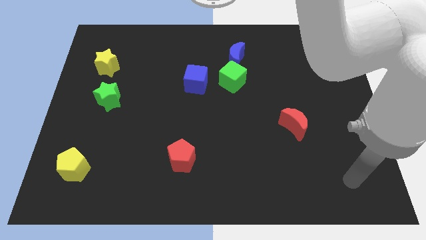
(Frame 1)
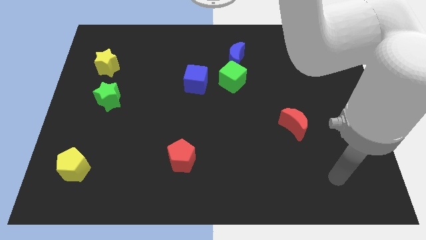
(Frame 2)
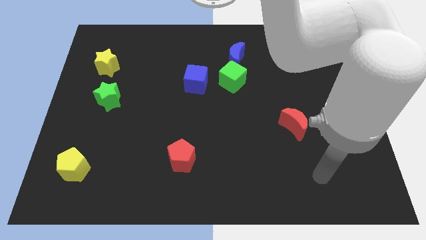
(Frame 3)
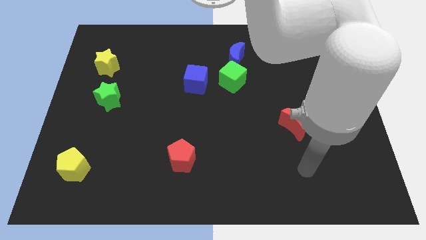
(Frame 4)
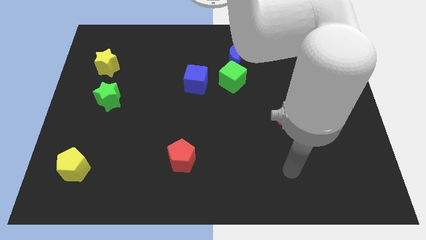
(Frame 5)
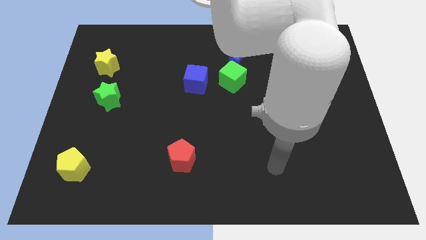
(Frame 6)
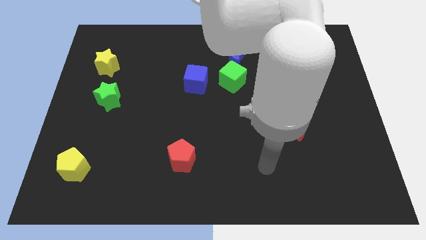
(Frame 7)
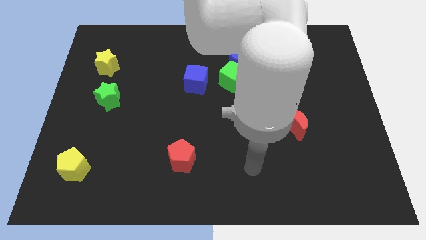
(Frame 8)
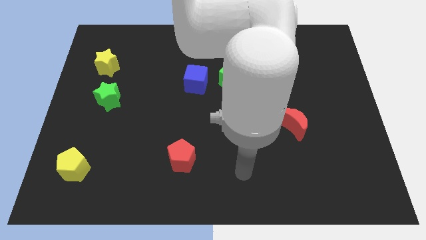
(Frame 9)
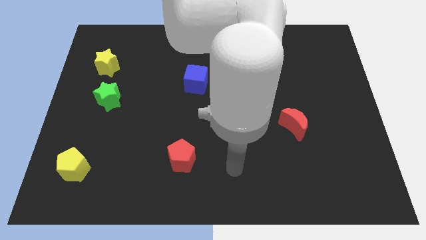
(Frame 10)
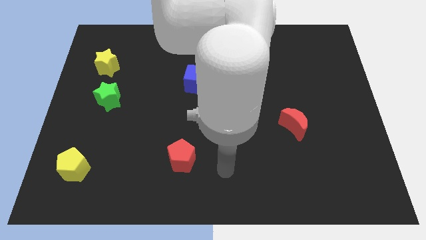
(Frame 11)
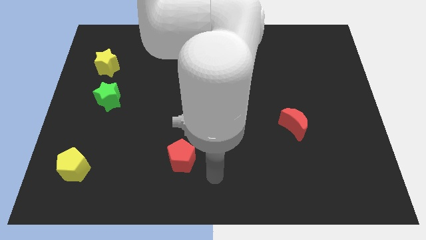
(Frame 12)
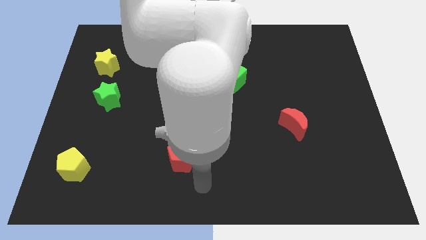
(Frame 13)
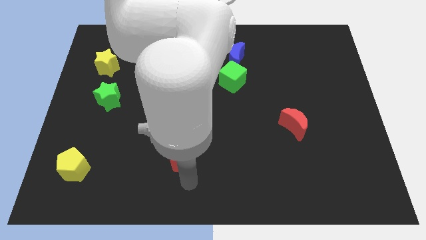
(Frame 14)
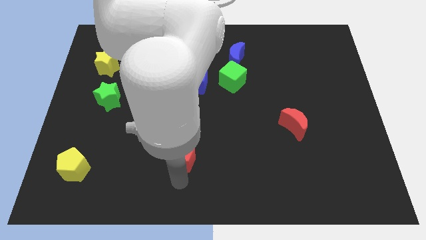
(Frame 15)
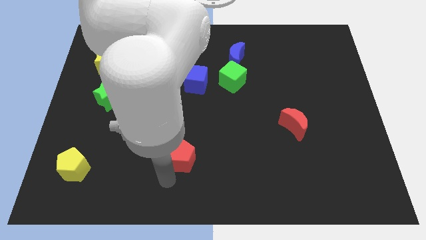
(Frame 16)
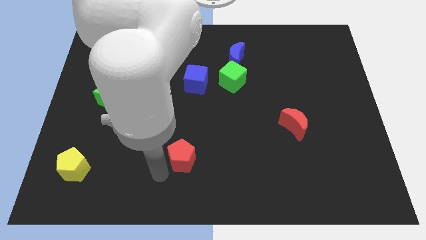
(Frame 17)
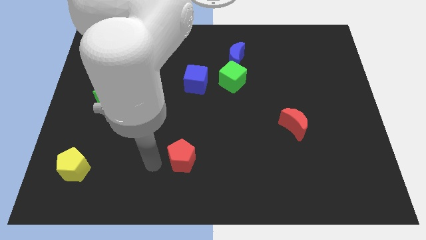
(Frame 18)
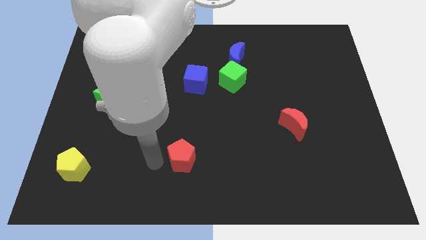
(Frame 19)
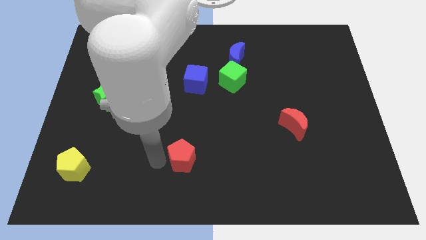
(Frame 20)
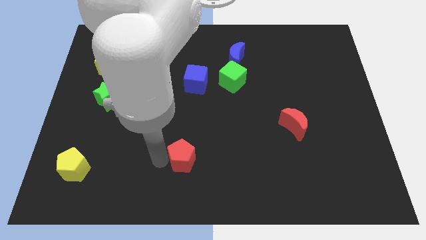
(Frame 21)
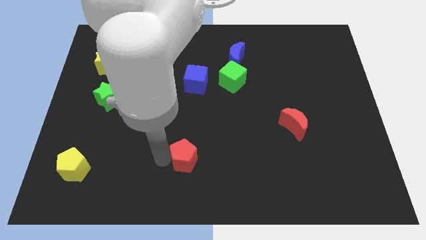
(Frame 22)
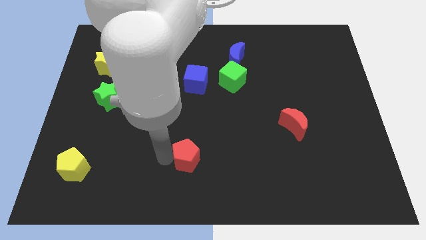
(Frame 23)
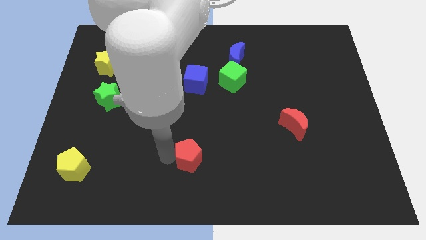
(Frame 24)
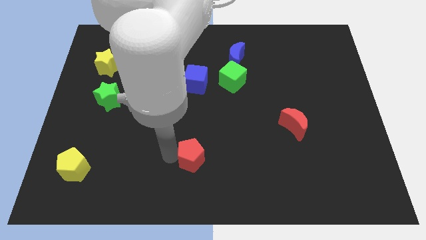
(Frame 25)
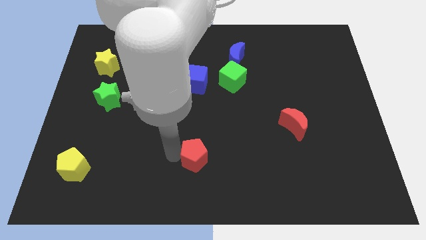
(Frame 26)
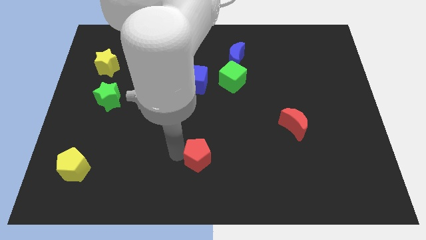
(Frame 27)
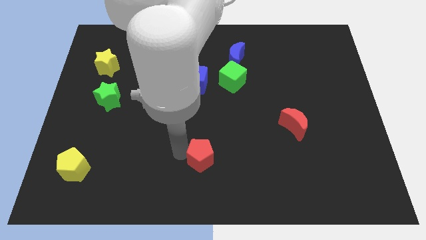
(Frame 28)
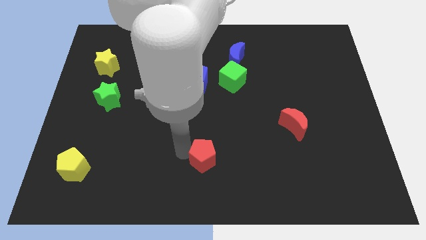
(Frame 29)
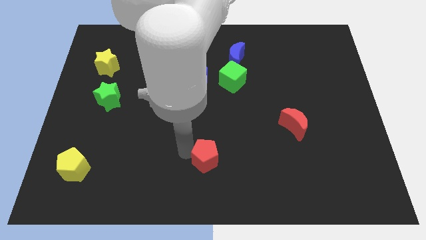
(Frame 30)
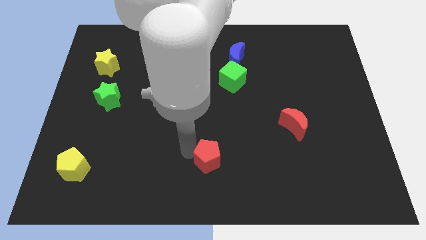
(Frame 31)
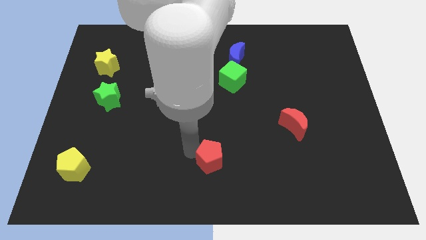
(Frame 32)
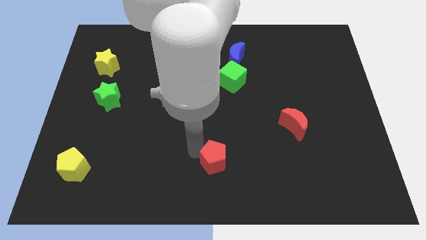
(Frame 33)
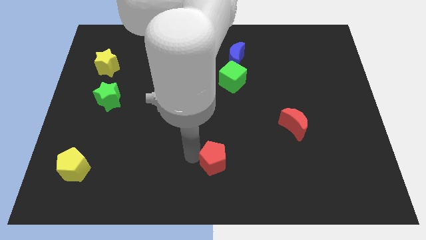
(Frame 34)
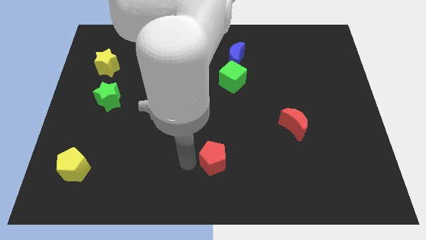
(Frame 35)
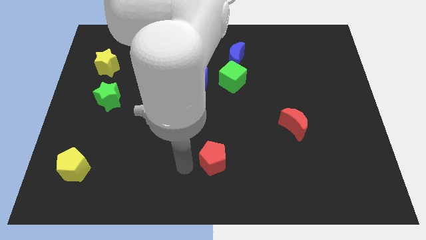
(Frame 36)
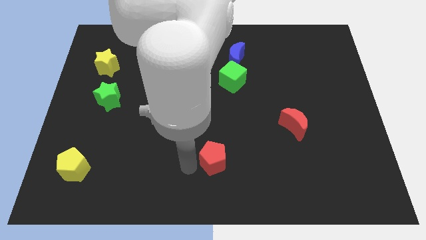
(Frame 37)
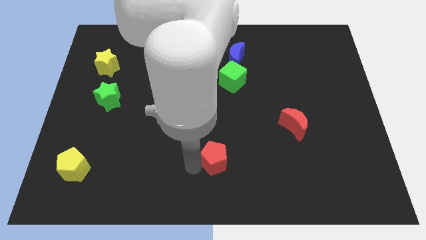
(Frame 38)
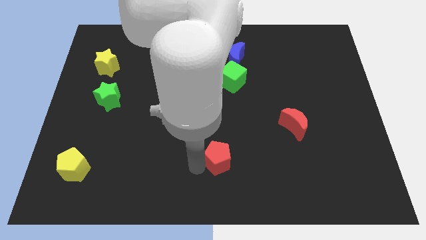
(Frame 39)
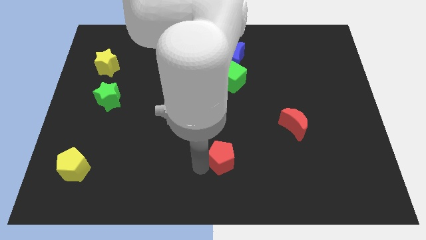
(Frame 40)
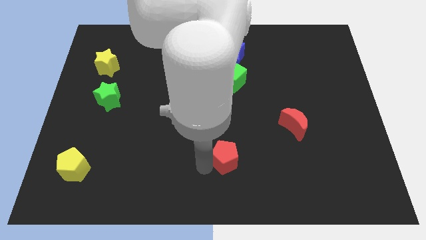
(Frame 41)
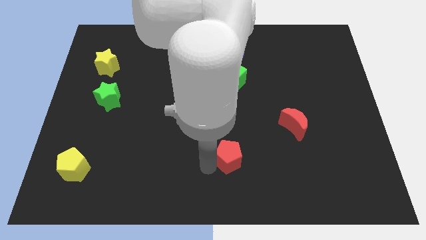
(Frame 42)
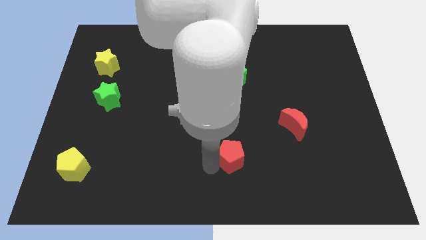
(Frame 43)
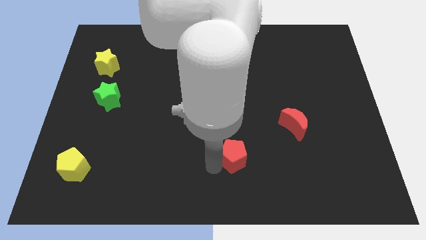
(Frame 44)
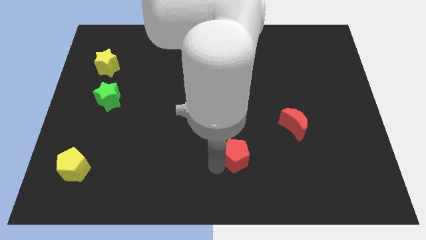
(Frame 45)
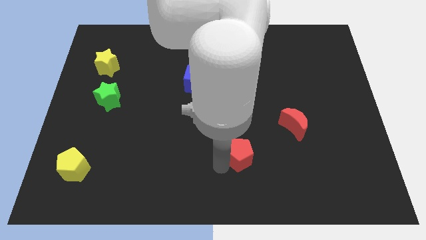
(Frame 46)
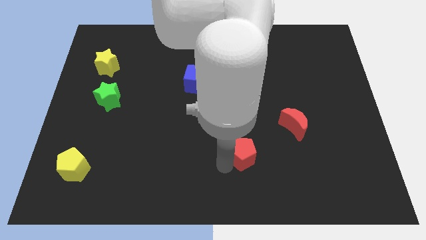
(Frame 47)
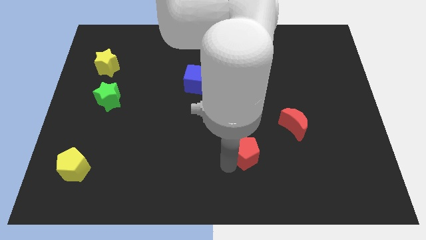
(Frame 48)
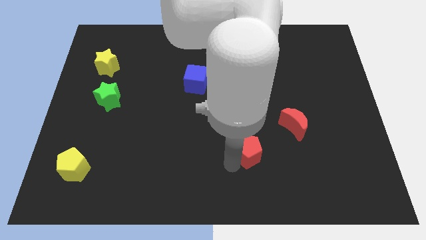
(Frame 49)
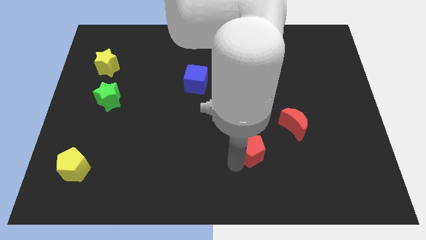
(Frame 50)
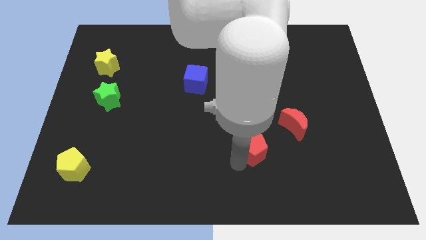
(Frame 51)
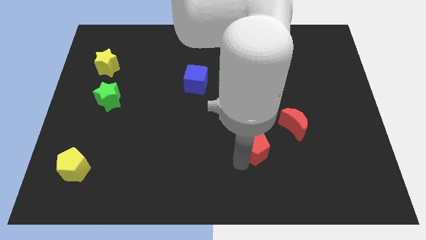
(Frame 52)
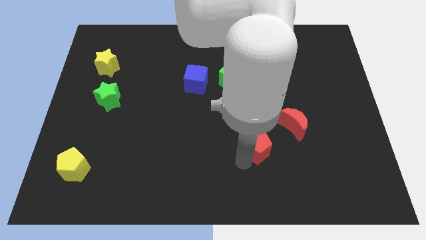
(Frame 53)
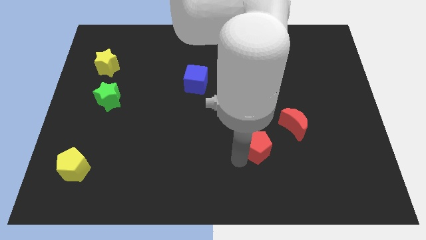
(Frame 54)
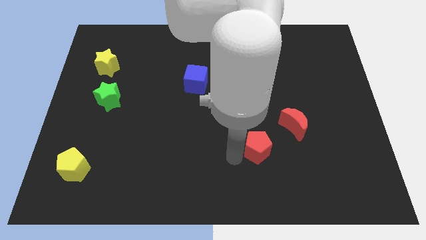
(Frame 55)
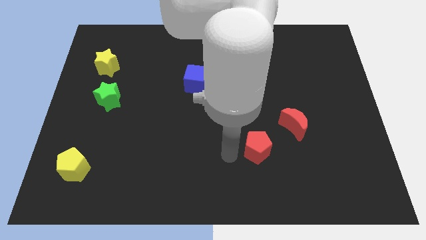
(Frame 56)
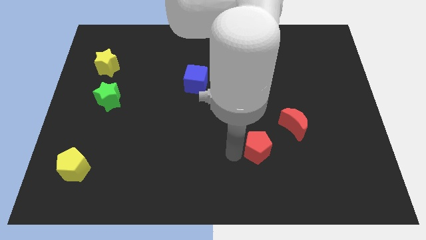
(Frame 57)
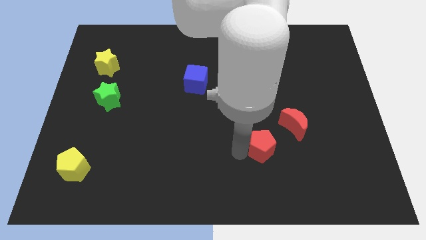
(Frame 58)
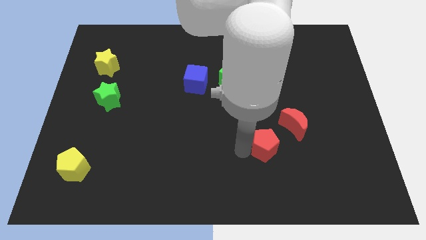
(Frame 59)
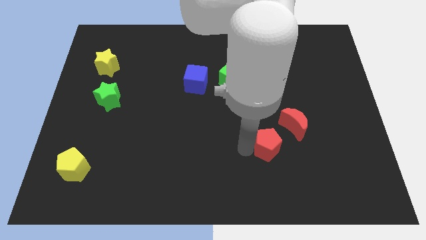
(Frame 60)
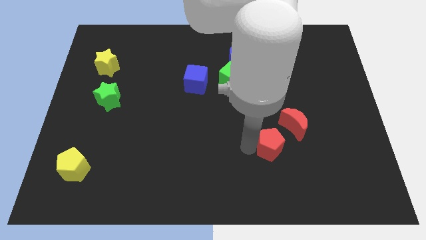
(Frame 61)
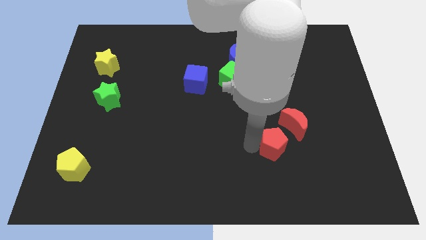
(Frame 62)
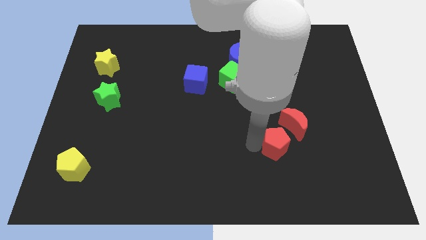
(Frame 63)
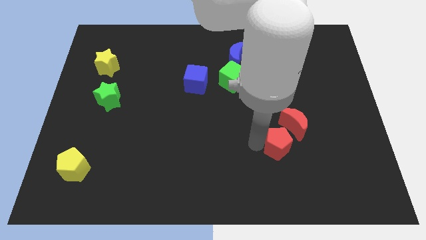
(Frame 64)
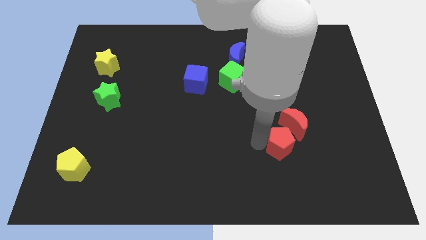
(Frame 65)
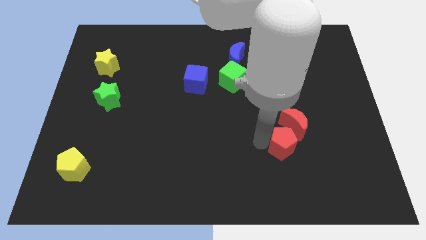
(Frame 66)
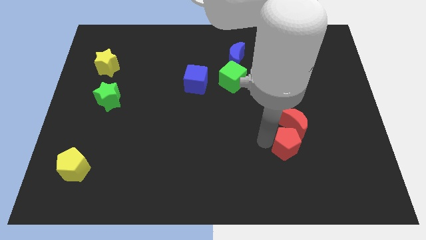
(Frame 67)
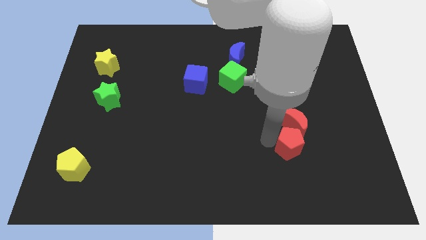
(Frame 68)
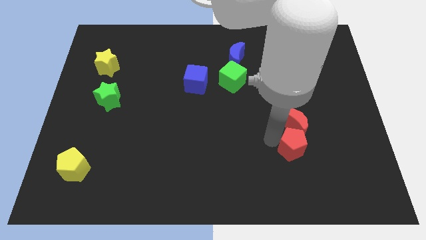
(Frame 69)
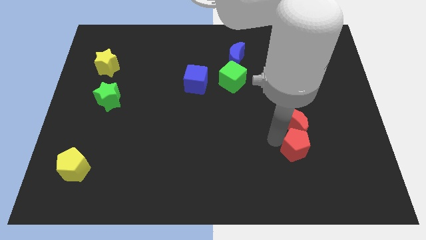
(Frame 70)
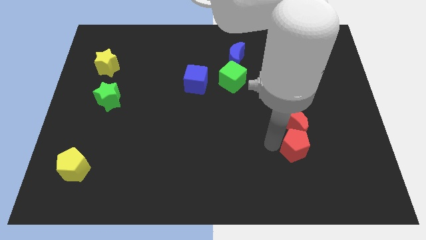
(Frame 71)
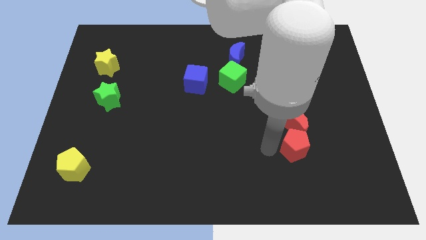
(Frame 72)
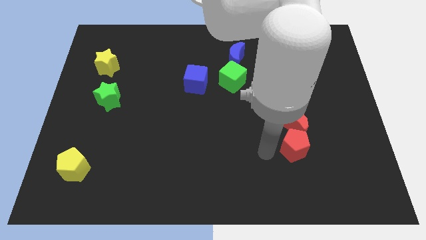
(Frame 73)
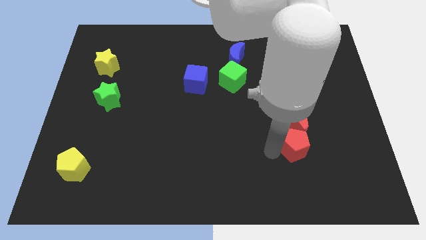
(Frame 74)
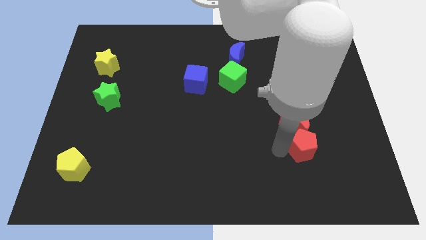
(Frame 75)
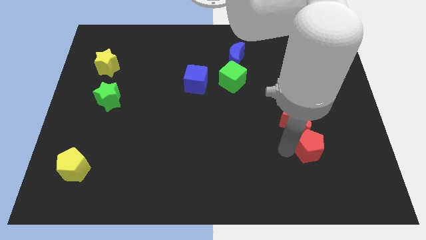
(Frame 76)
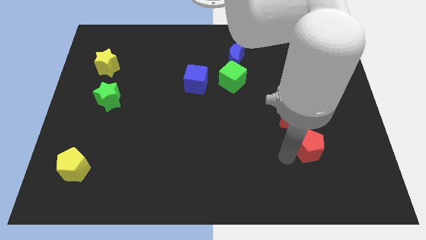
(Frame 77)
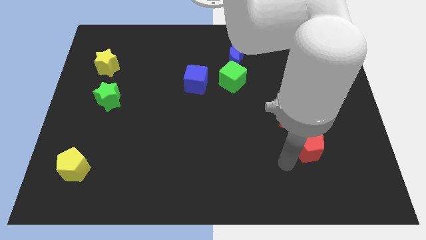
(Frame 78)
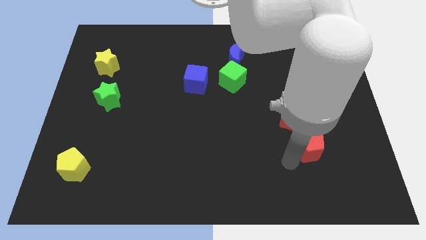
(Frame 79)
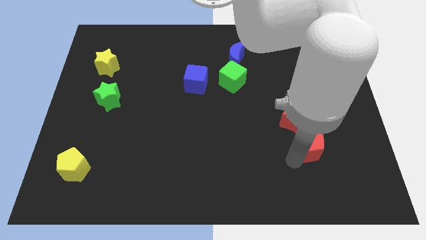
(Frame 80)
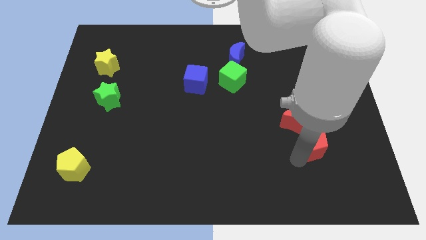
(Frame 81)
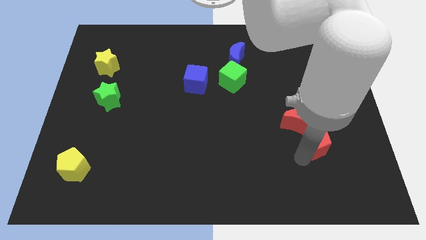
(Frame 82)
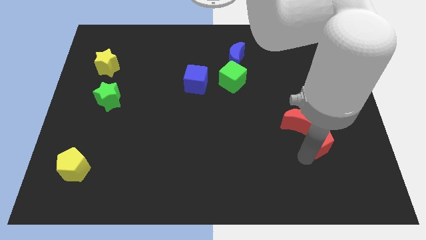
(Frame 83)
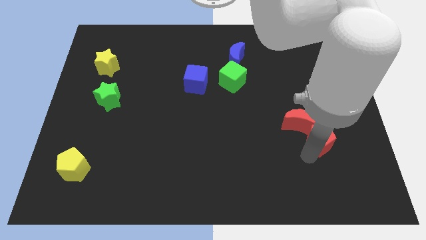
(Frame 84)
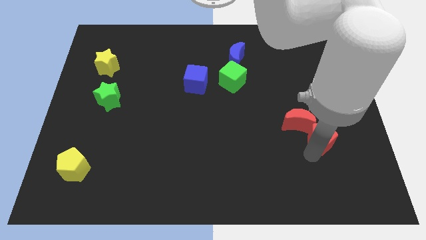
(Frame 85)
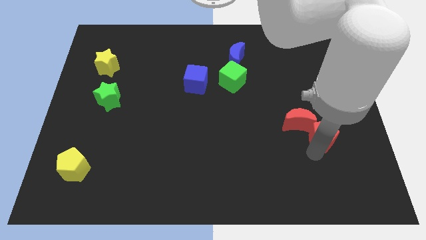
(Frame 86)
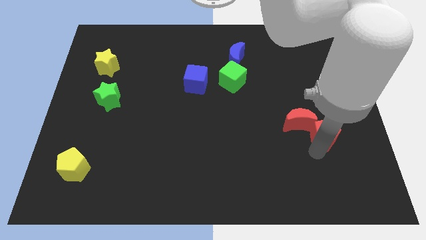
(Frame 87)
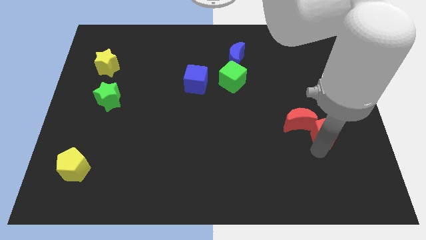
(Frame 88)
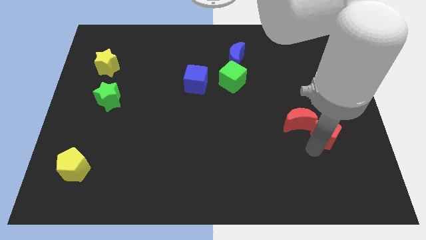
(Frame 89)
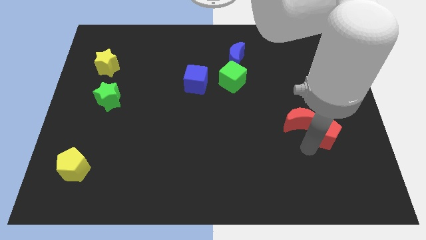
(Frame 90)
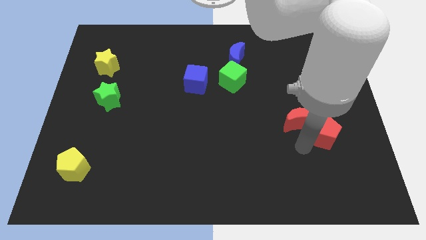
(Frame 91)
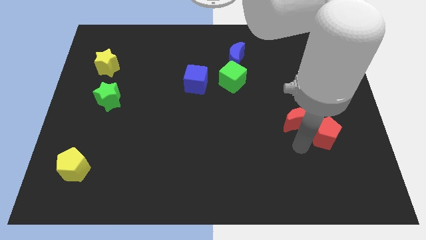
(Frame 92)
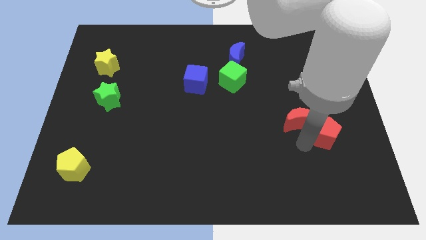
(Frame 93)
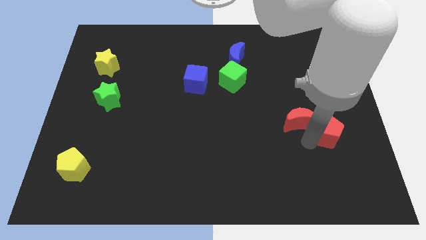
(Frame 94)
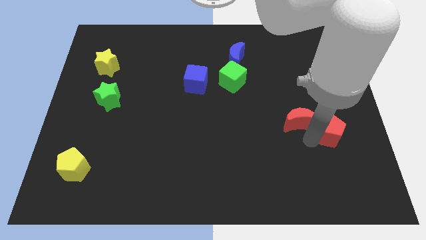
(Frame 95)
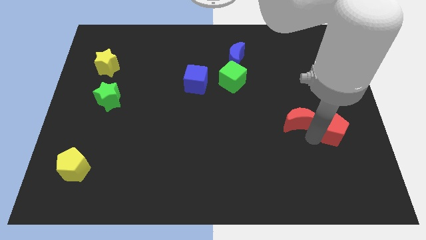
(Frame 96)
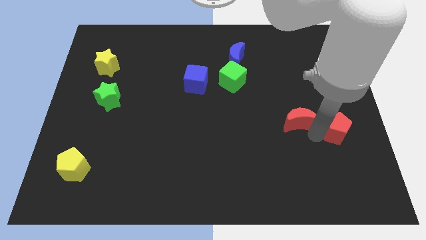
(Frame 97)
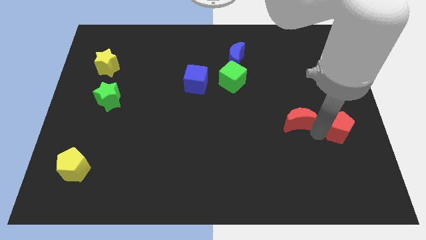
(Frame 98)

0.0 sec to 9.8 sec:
move the red pentagon to the right side
